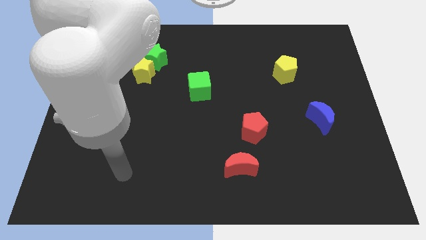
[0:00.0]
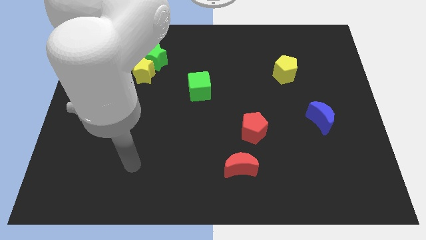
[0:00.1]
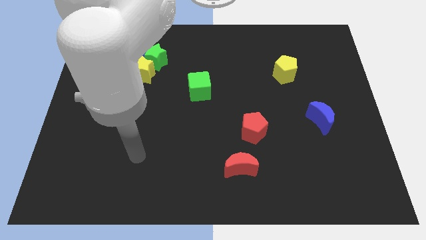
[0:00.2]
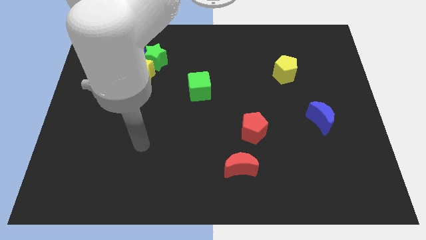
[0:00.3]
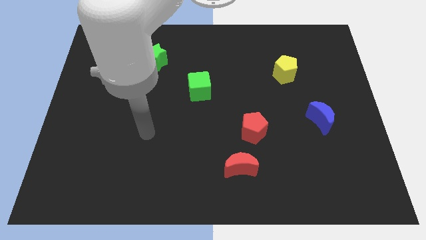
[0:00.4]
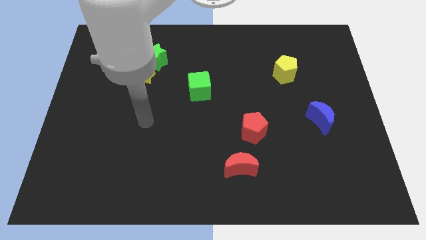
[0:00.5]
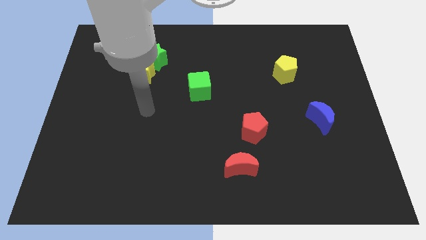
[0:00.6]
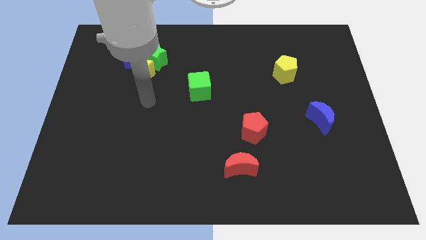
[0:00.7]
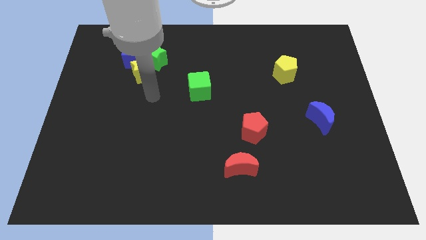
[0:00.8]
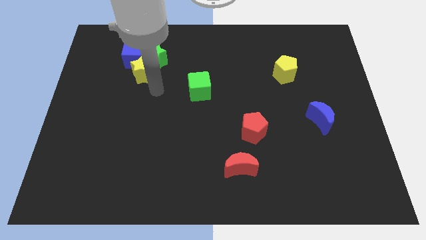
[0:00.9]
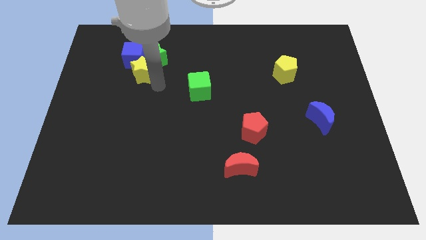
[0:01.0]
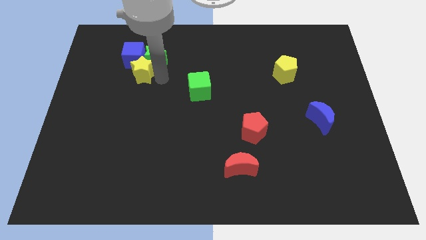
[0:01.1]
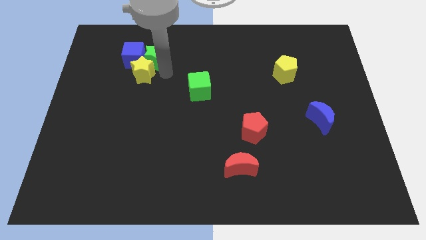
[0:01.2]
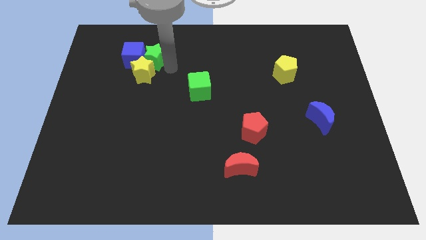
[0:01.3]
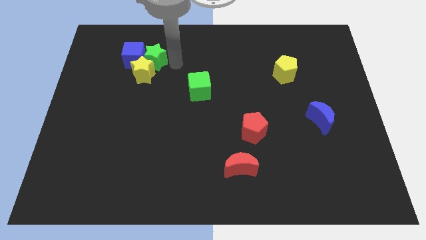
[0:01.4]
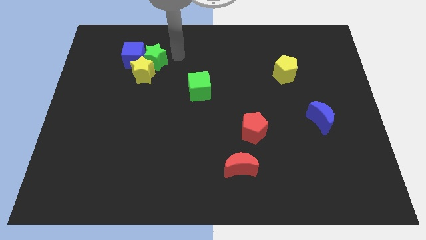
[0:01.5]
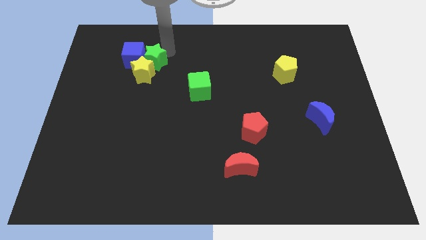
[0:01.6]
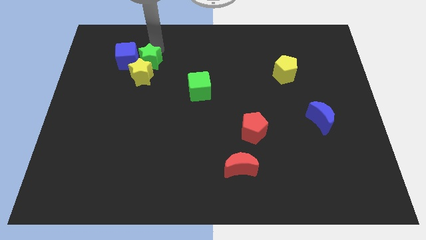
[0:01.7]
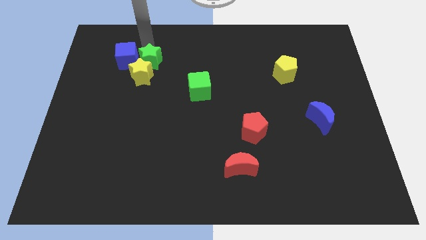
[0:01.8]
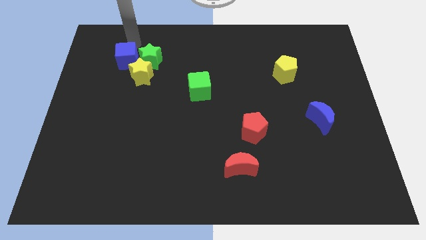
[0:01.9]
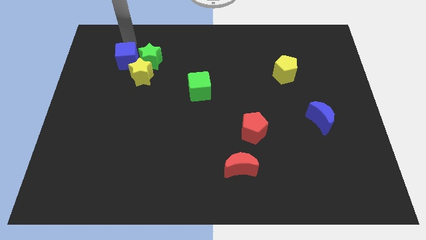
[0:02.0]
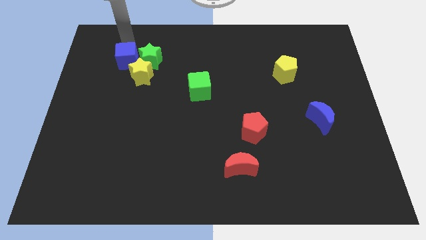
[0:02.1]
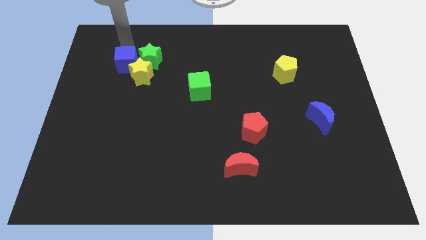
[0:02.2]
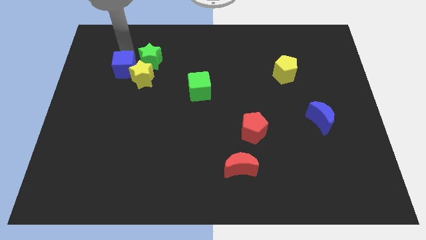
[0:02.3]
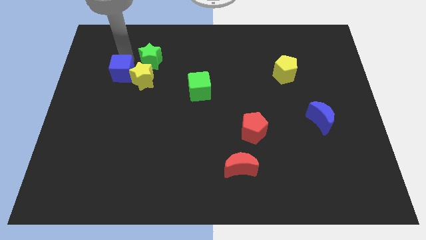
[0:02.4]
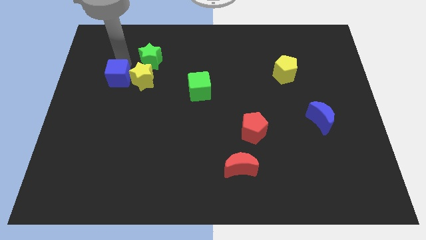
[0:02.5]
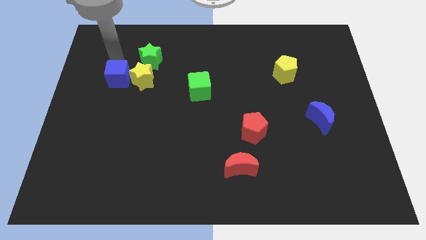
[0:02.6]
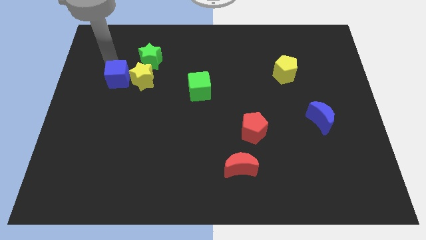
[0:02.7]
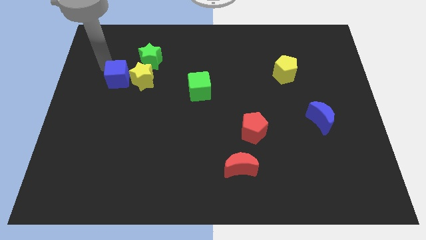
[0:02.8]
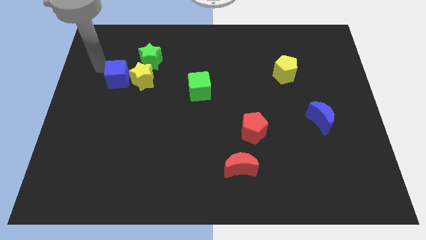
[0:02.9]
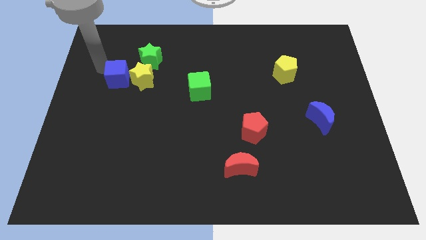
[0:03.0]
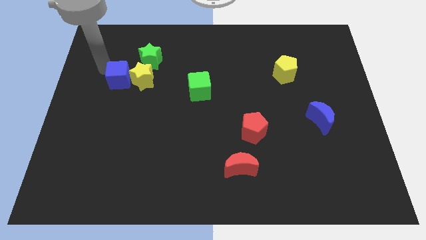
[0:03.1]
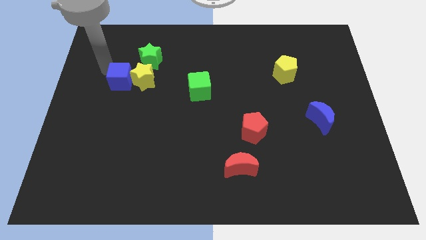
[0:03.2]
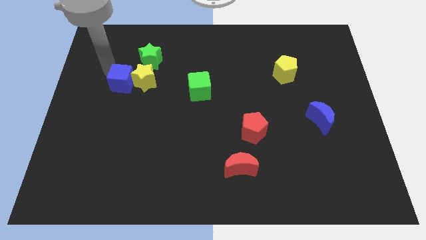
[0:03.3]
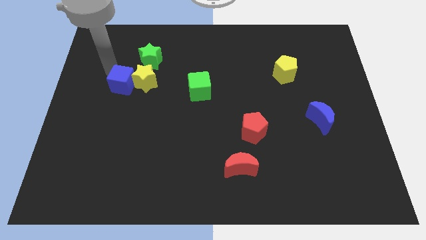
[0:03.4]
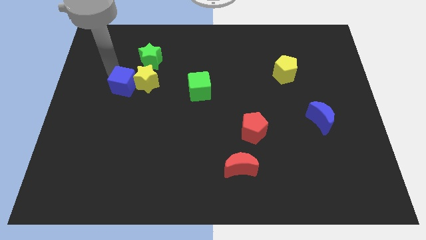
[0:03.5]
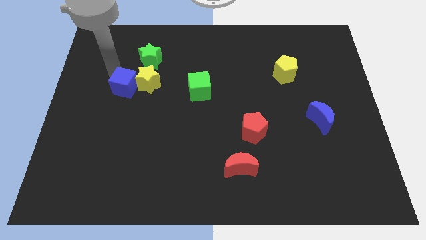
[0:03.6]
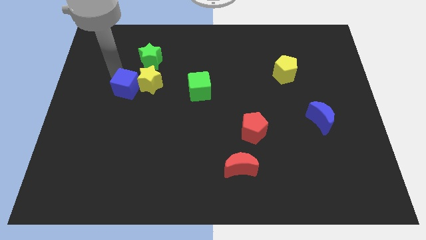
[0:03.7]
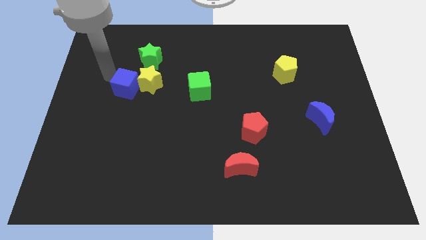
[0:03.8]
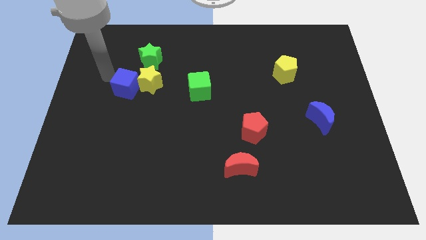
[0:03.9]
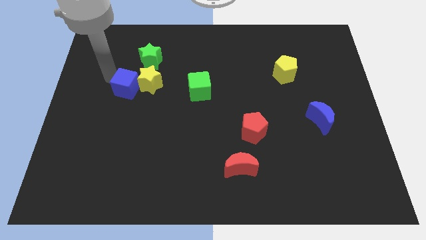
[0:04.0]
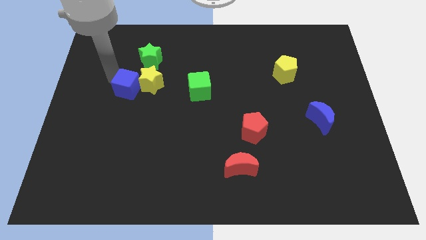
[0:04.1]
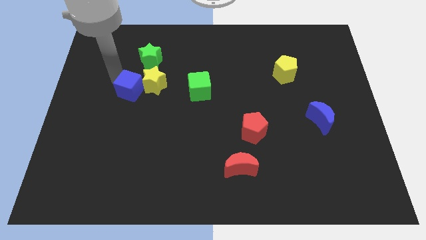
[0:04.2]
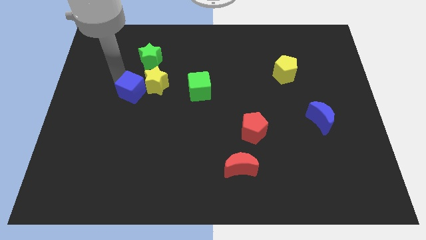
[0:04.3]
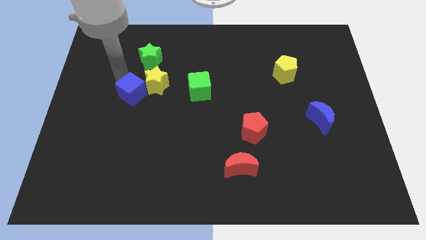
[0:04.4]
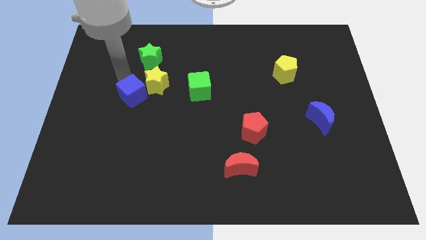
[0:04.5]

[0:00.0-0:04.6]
slightly push the blue cube down and to the right diagonally

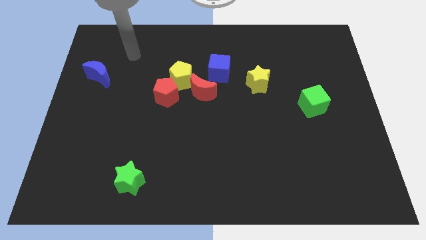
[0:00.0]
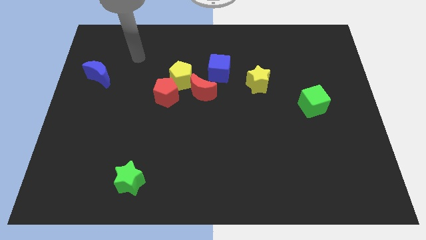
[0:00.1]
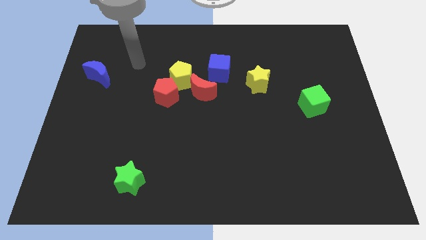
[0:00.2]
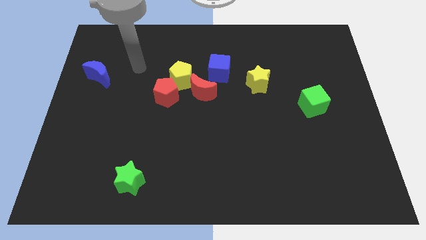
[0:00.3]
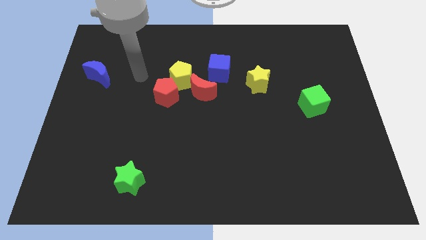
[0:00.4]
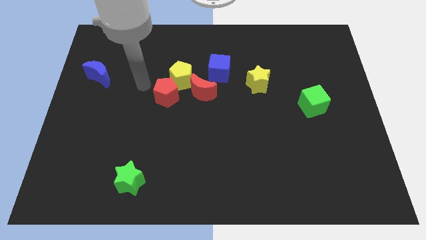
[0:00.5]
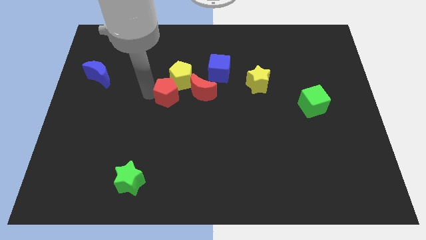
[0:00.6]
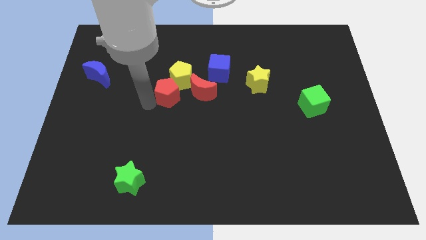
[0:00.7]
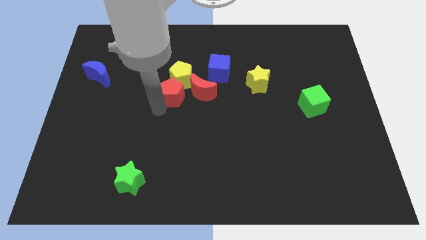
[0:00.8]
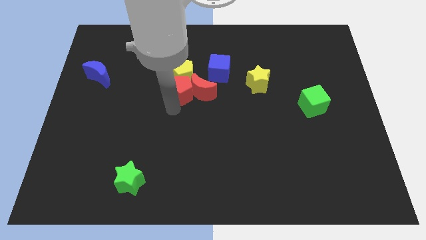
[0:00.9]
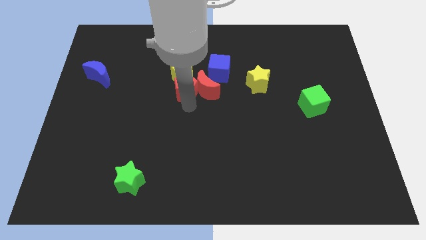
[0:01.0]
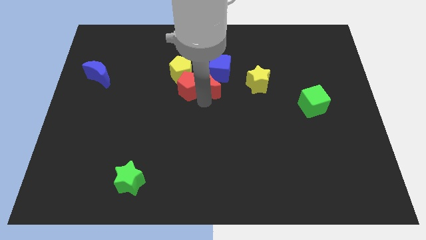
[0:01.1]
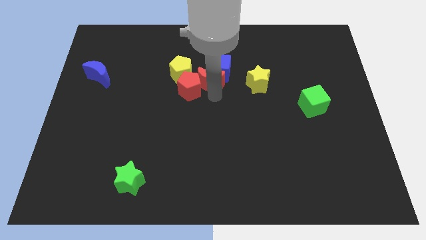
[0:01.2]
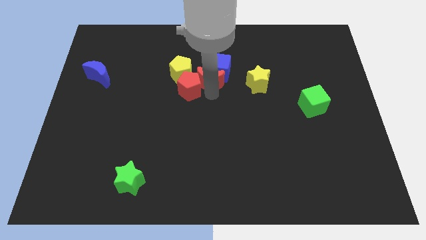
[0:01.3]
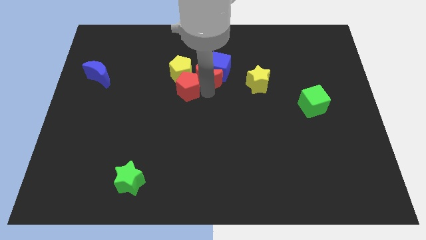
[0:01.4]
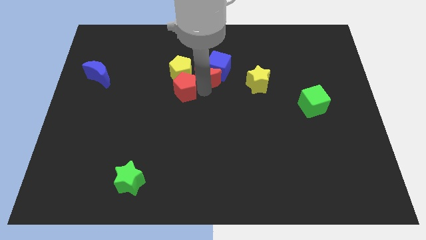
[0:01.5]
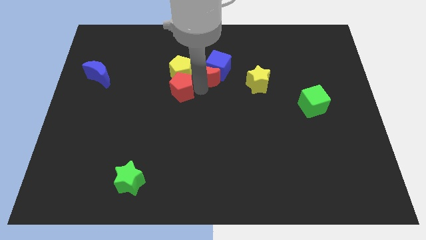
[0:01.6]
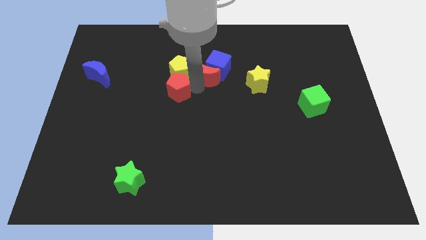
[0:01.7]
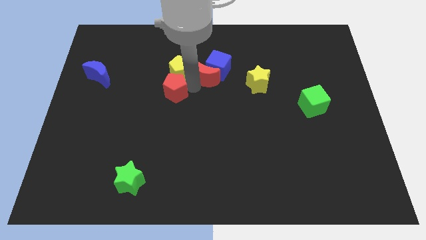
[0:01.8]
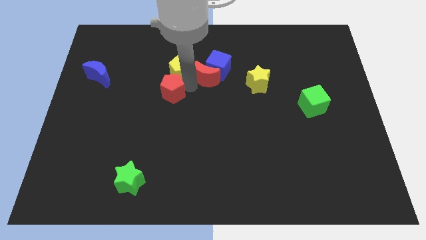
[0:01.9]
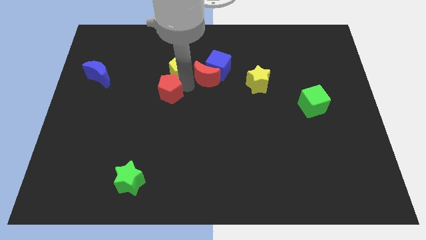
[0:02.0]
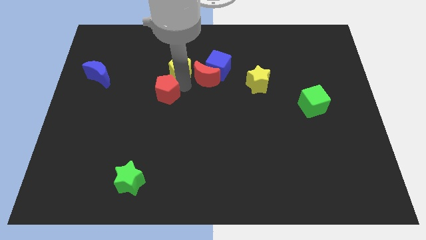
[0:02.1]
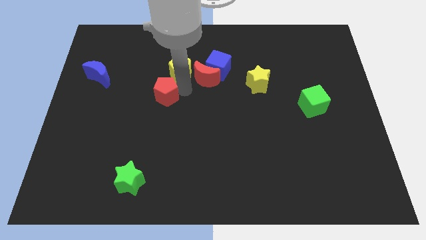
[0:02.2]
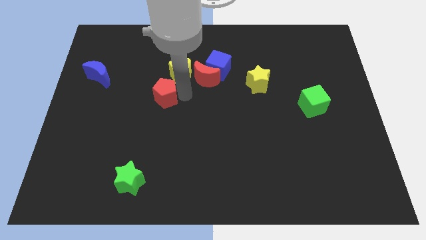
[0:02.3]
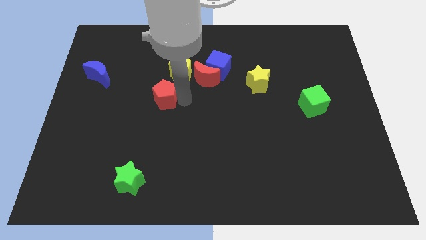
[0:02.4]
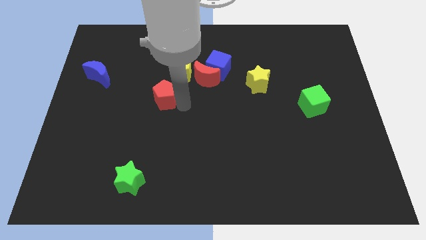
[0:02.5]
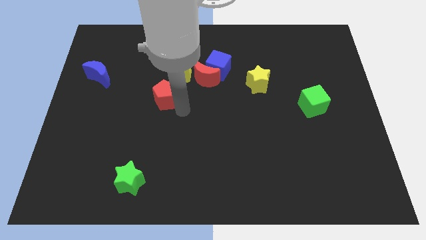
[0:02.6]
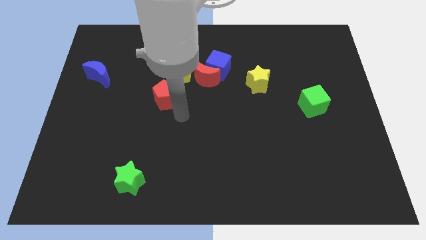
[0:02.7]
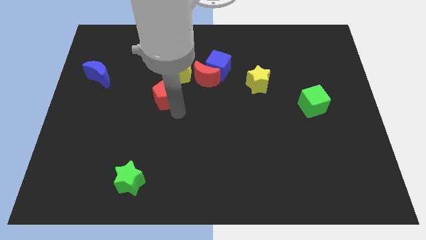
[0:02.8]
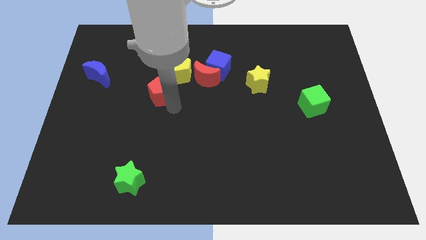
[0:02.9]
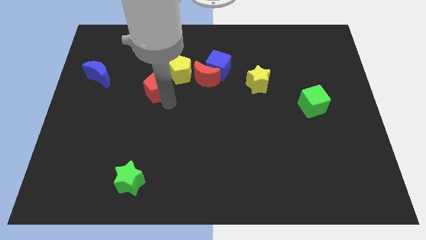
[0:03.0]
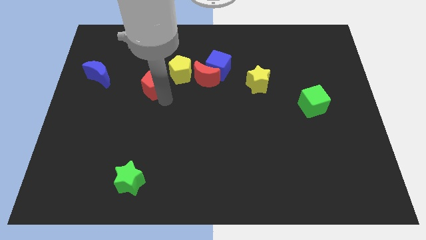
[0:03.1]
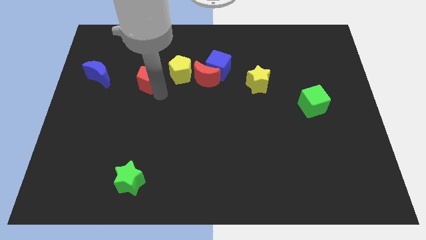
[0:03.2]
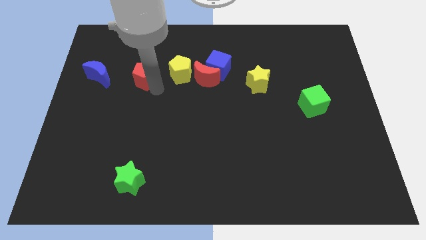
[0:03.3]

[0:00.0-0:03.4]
slightly slide the red pentagon up and to the left
